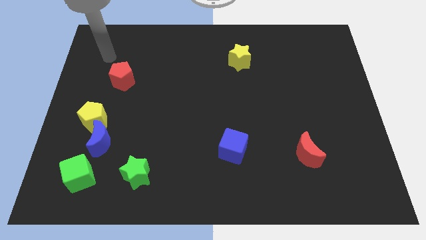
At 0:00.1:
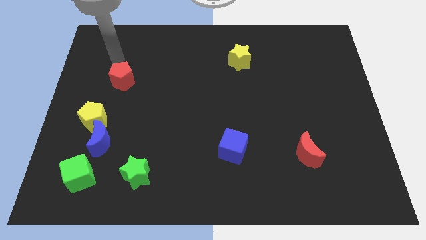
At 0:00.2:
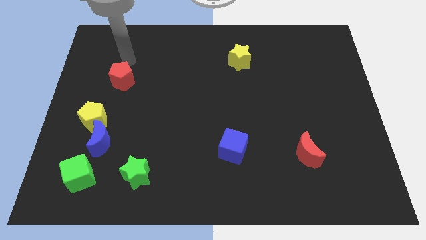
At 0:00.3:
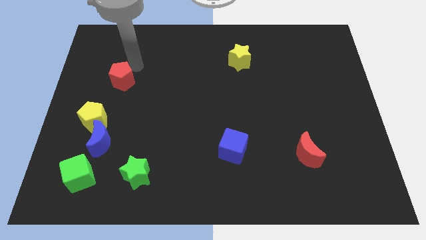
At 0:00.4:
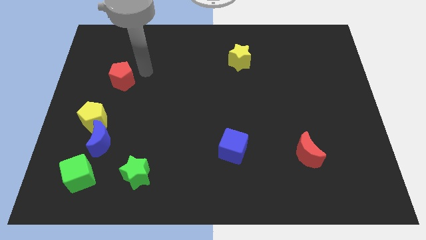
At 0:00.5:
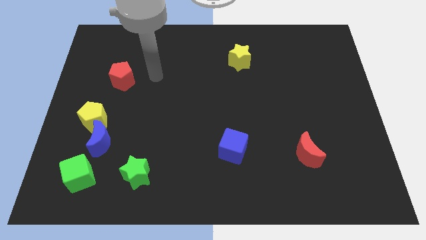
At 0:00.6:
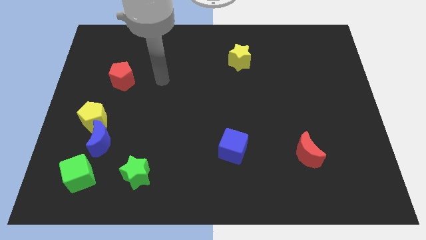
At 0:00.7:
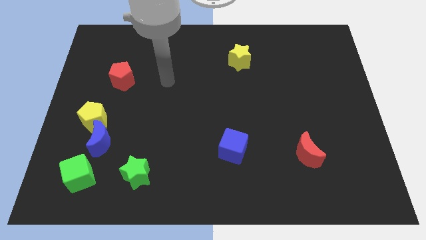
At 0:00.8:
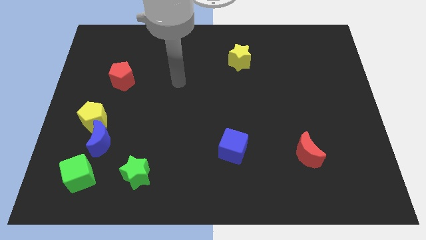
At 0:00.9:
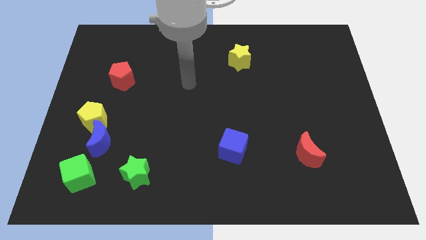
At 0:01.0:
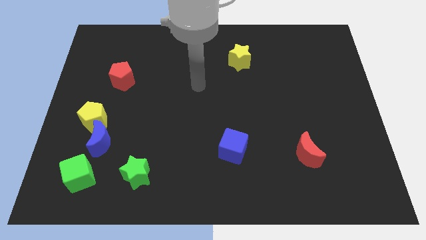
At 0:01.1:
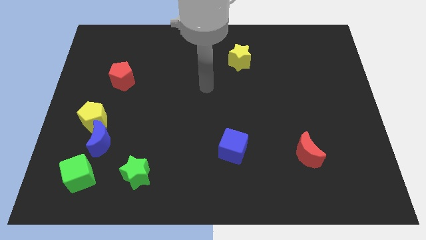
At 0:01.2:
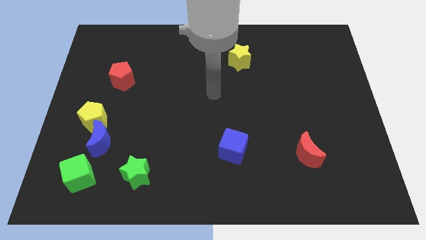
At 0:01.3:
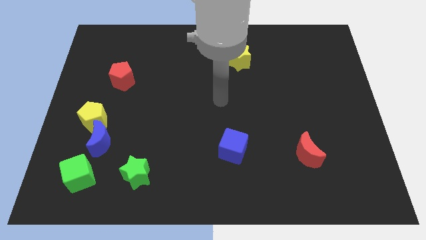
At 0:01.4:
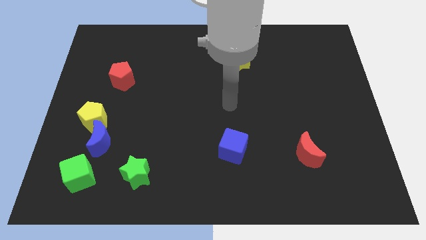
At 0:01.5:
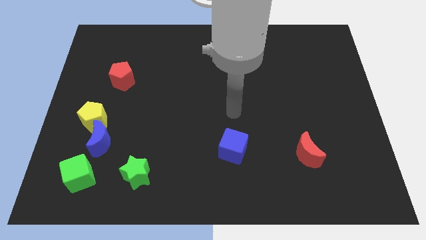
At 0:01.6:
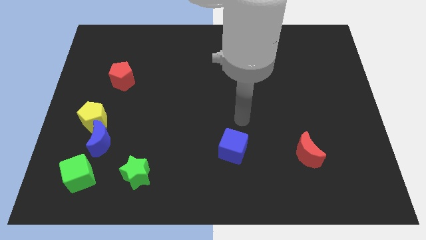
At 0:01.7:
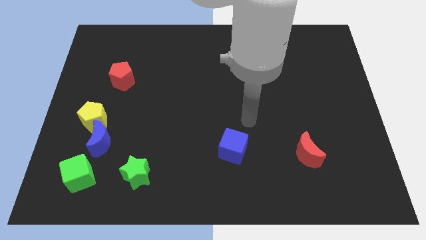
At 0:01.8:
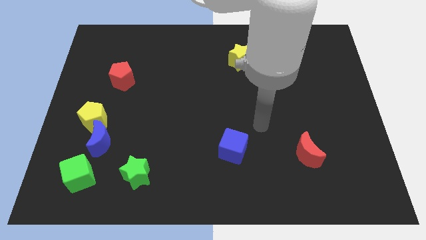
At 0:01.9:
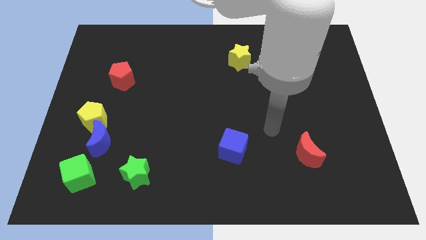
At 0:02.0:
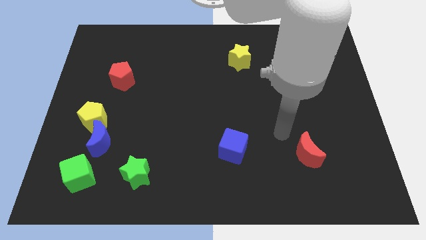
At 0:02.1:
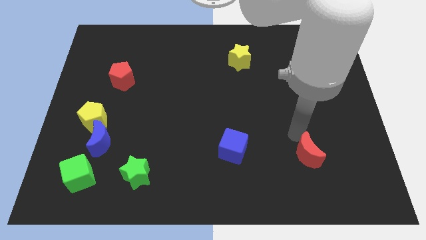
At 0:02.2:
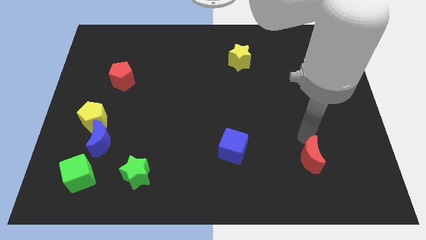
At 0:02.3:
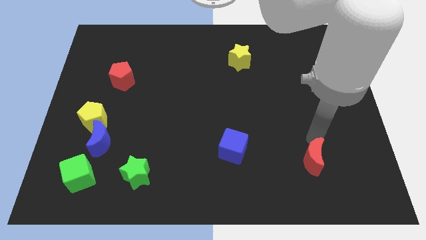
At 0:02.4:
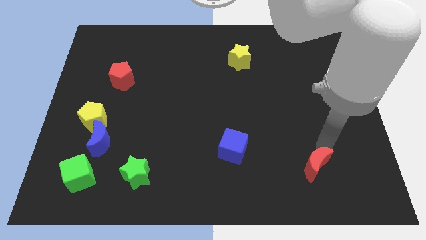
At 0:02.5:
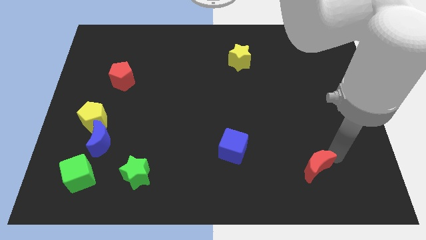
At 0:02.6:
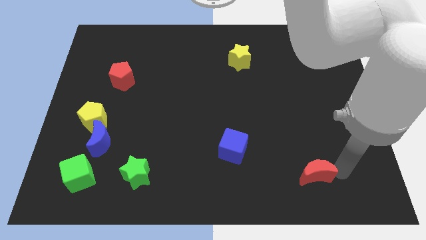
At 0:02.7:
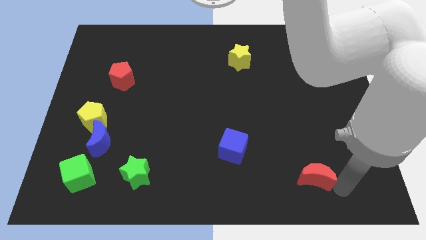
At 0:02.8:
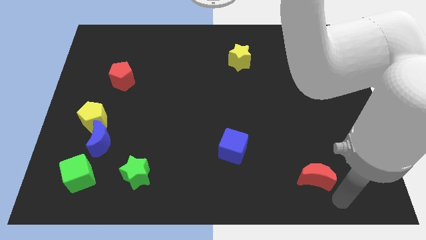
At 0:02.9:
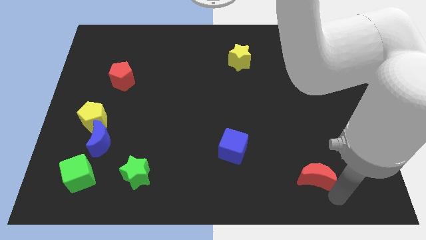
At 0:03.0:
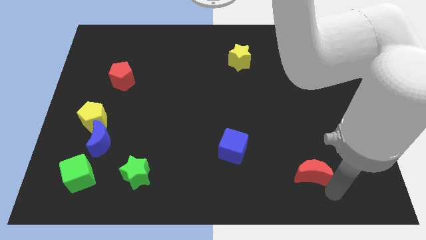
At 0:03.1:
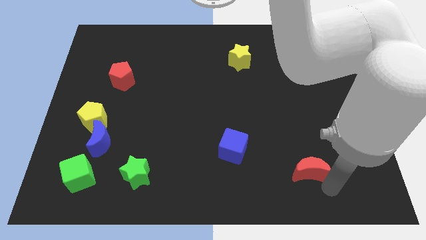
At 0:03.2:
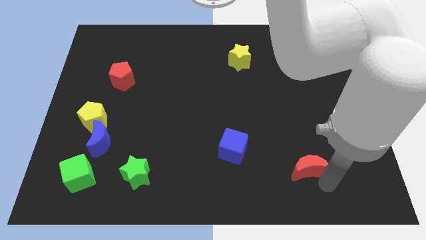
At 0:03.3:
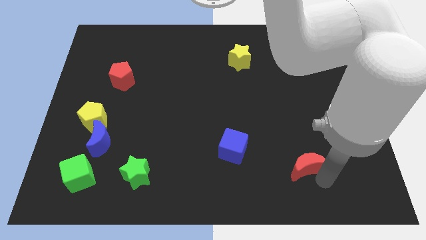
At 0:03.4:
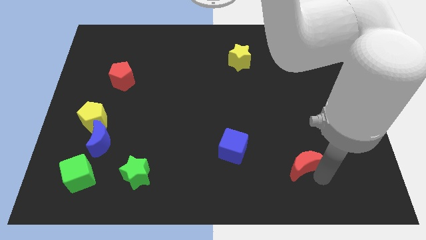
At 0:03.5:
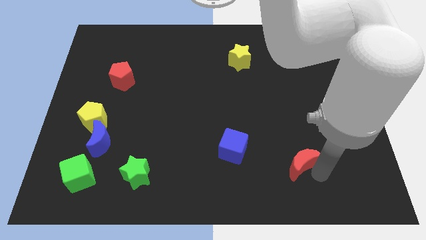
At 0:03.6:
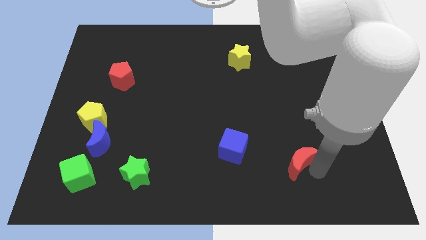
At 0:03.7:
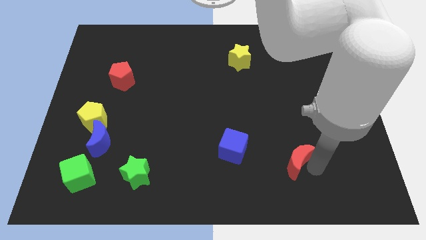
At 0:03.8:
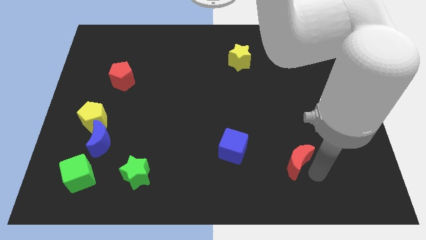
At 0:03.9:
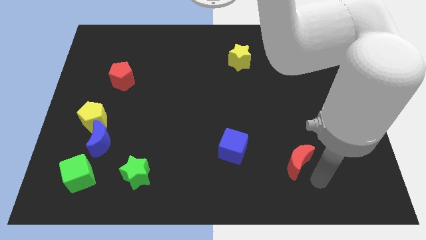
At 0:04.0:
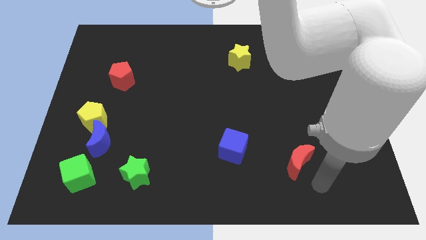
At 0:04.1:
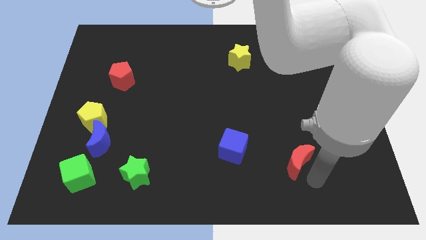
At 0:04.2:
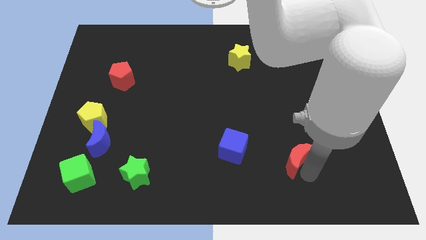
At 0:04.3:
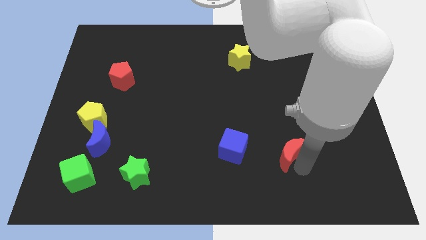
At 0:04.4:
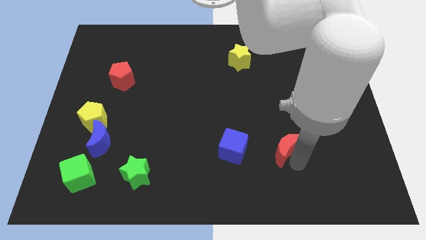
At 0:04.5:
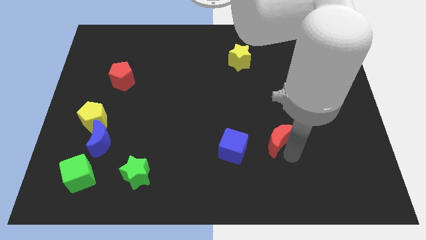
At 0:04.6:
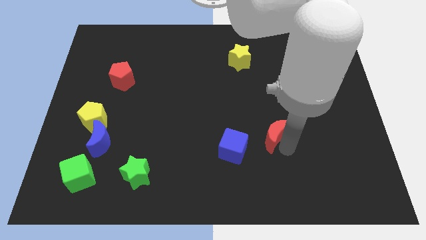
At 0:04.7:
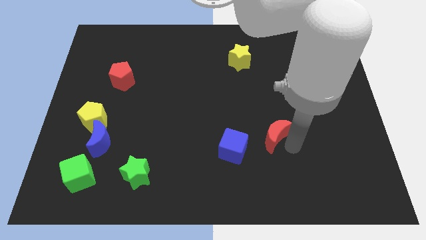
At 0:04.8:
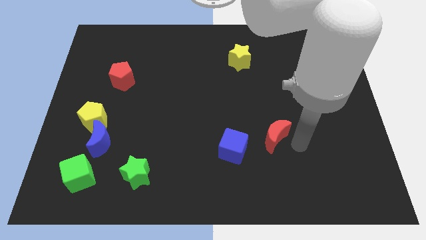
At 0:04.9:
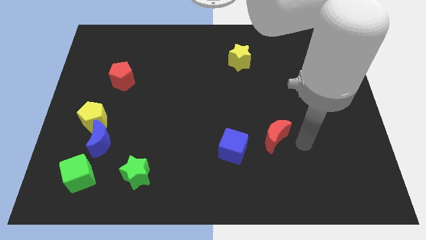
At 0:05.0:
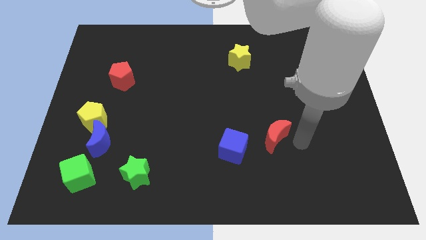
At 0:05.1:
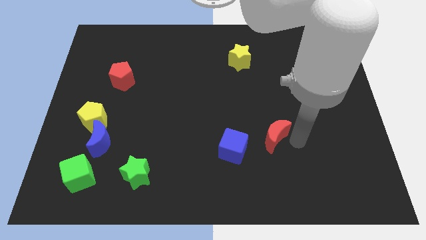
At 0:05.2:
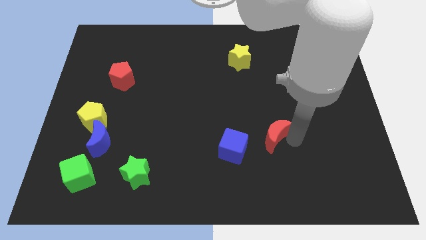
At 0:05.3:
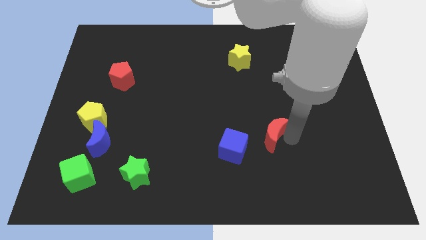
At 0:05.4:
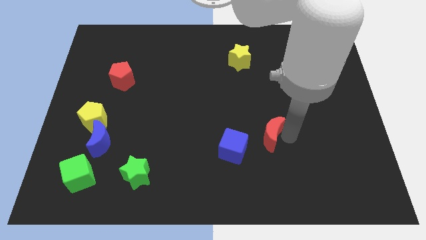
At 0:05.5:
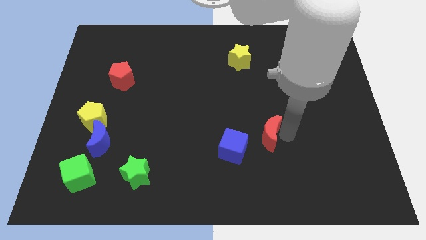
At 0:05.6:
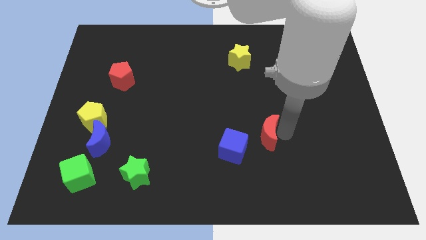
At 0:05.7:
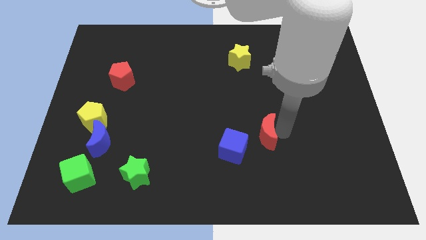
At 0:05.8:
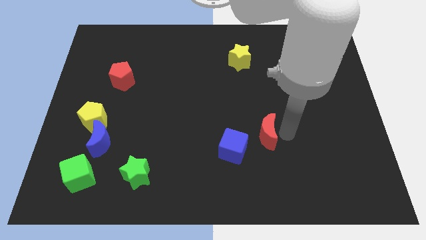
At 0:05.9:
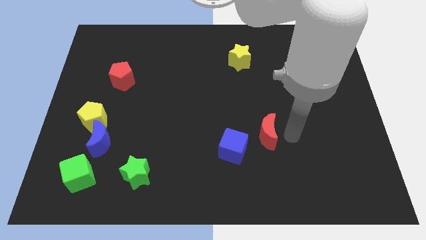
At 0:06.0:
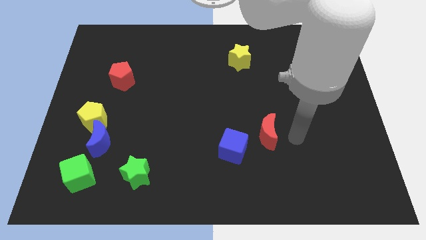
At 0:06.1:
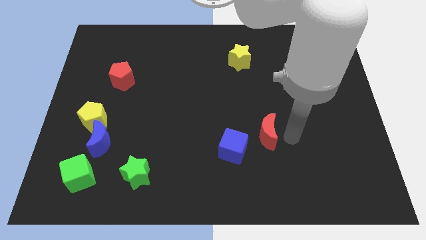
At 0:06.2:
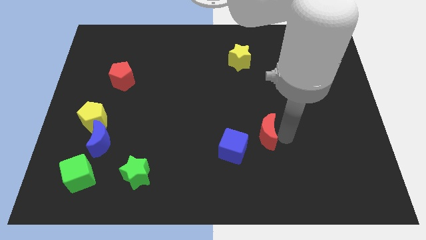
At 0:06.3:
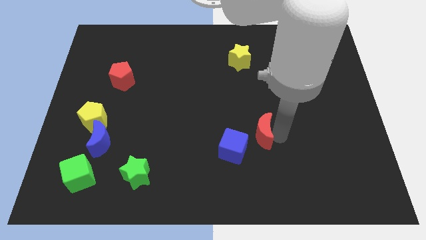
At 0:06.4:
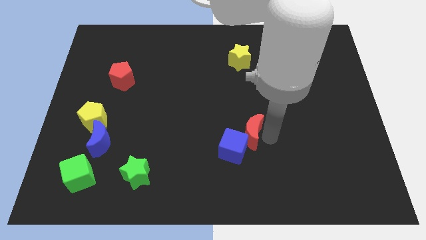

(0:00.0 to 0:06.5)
slide the red moon to the top of the blue cube
